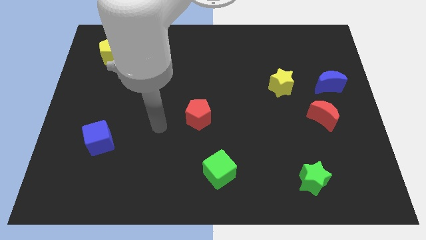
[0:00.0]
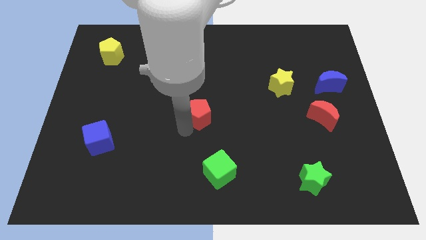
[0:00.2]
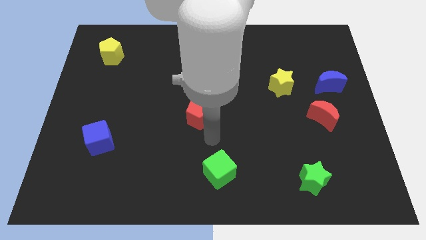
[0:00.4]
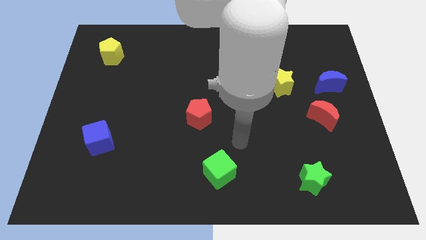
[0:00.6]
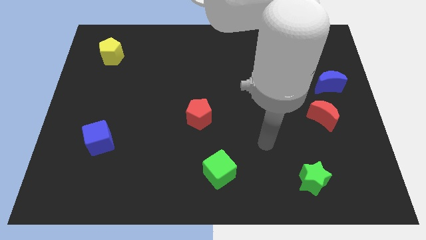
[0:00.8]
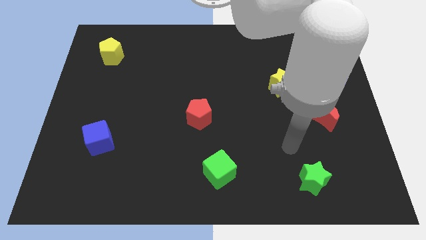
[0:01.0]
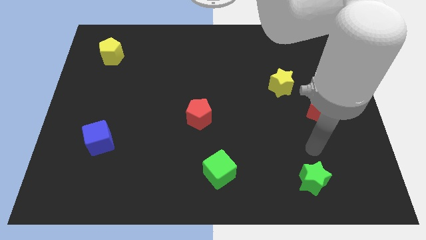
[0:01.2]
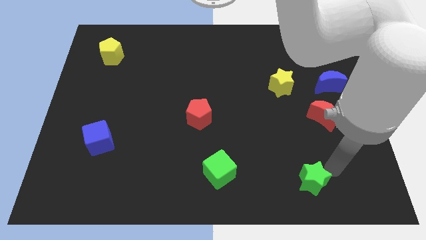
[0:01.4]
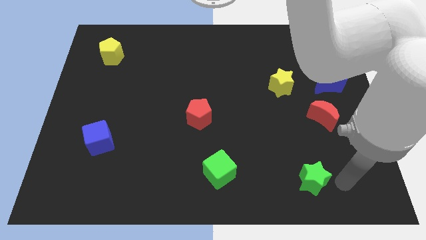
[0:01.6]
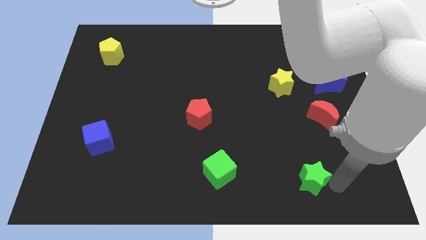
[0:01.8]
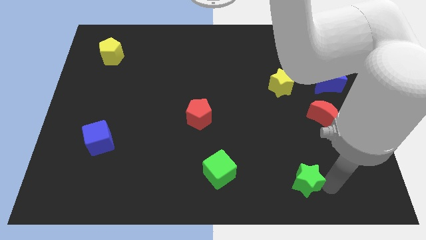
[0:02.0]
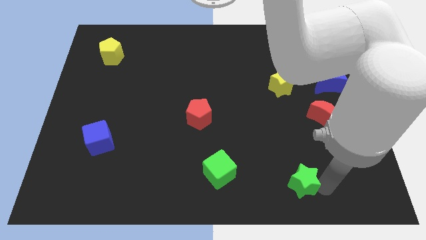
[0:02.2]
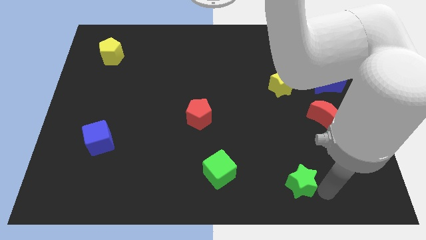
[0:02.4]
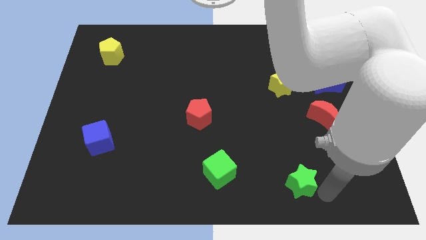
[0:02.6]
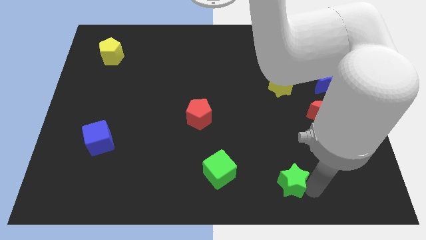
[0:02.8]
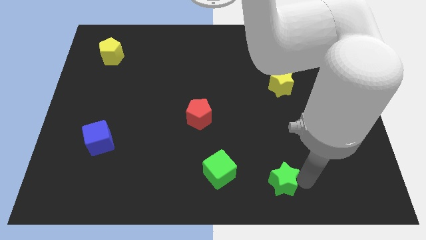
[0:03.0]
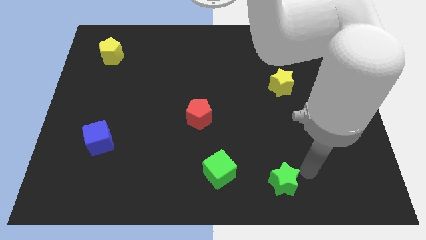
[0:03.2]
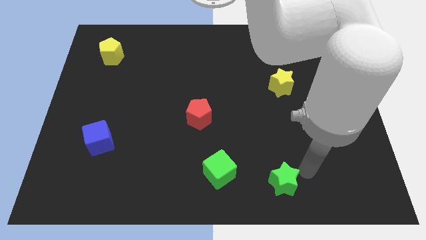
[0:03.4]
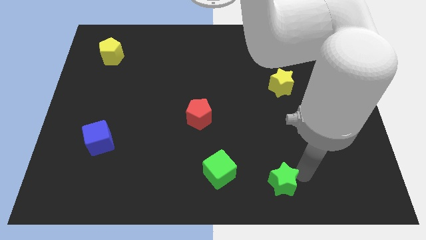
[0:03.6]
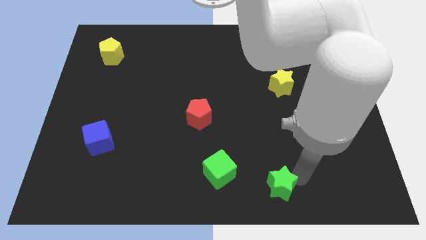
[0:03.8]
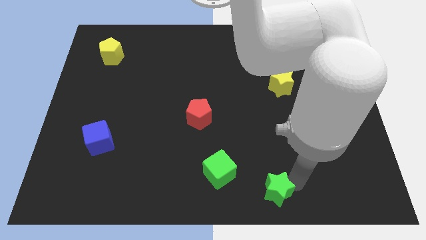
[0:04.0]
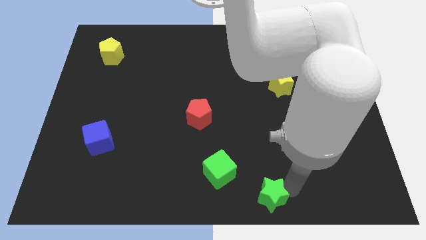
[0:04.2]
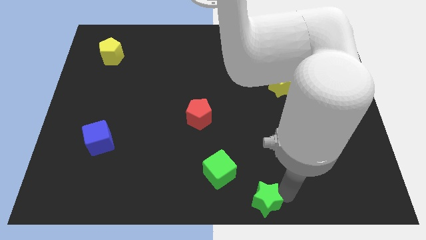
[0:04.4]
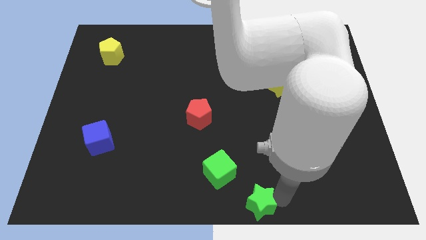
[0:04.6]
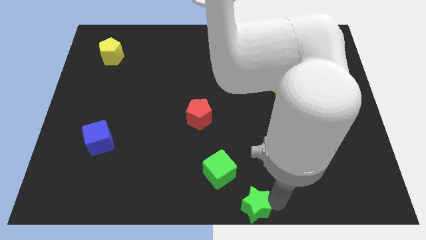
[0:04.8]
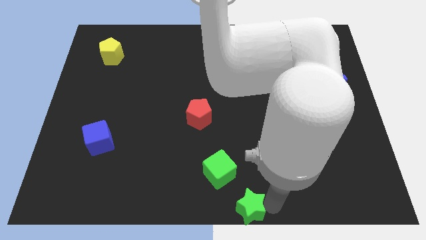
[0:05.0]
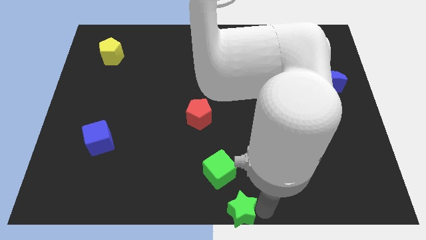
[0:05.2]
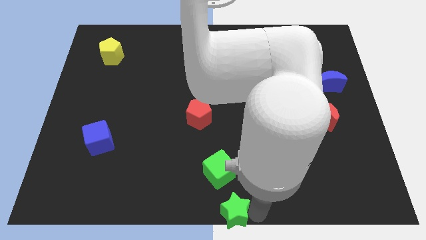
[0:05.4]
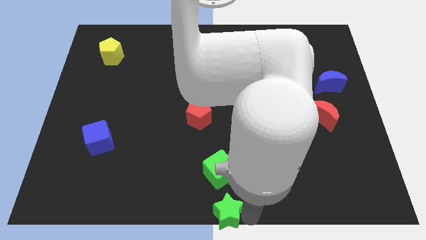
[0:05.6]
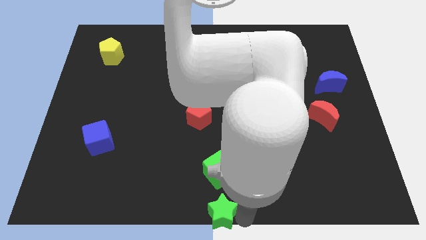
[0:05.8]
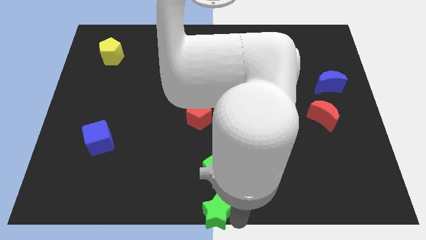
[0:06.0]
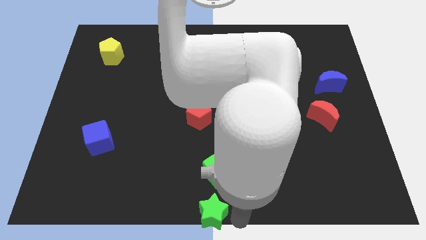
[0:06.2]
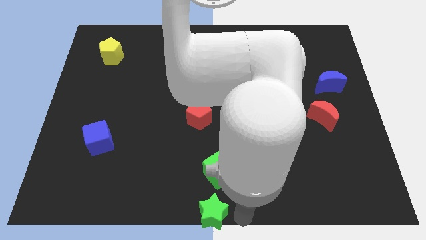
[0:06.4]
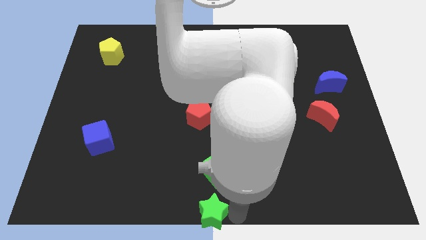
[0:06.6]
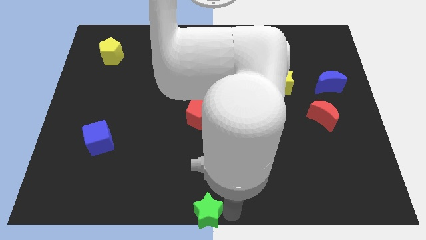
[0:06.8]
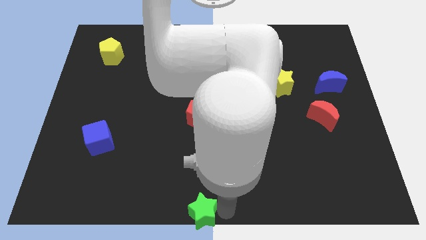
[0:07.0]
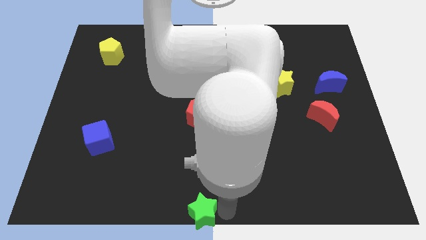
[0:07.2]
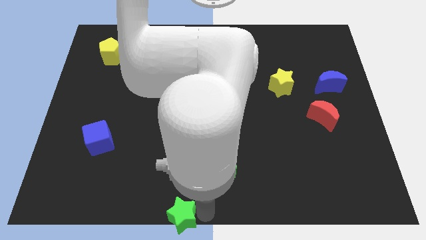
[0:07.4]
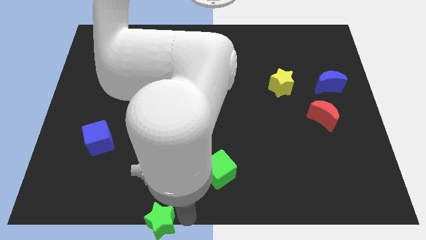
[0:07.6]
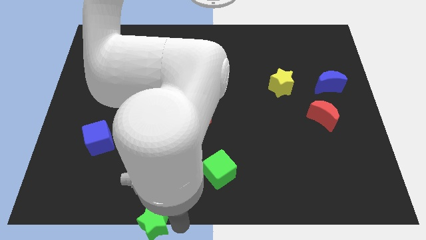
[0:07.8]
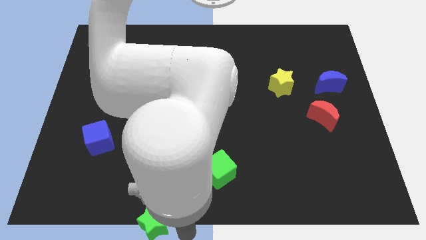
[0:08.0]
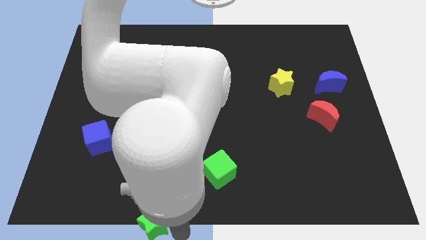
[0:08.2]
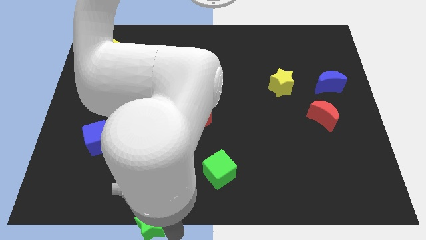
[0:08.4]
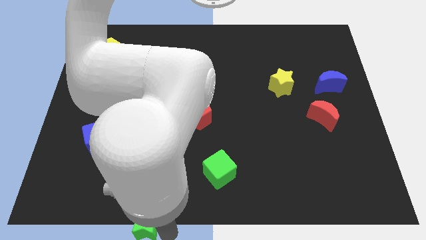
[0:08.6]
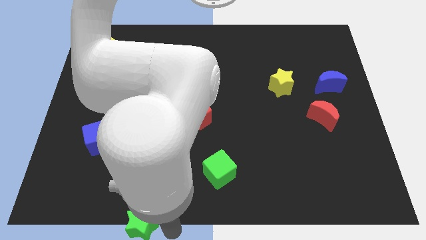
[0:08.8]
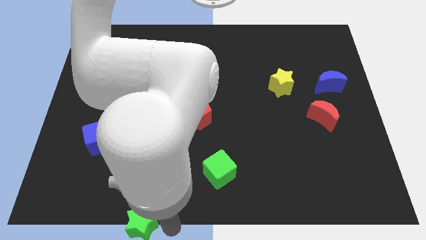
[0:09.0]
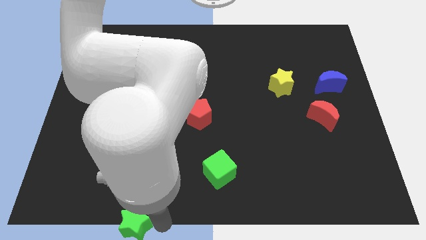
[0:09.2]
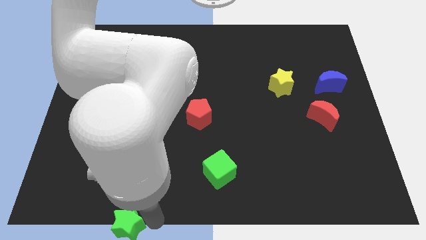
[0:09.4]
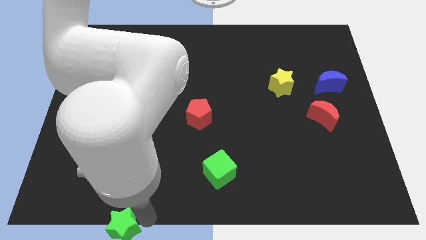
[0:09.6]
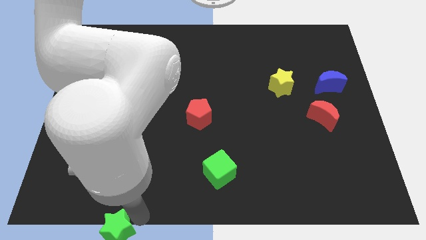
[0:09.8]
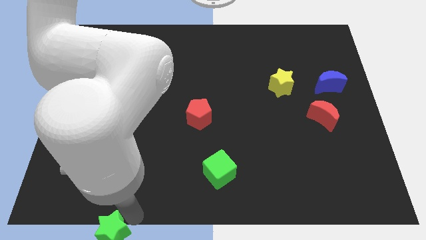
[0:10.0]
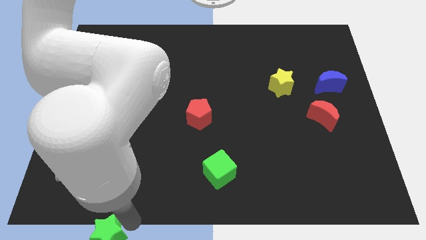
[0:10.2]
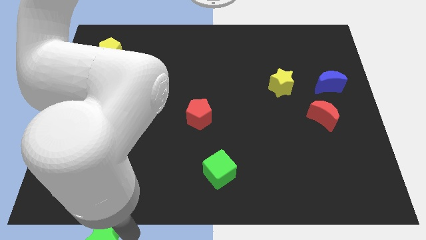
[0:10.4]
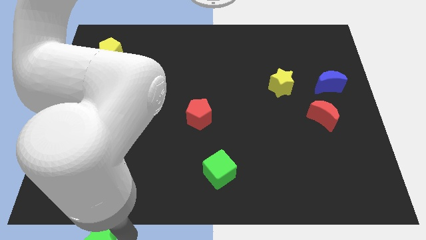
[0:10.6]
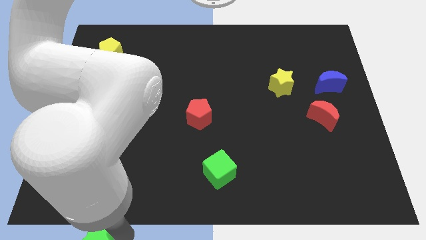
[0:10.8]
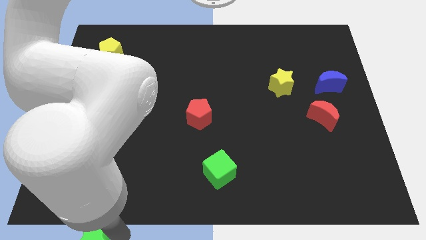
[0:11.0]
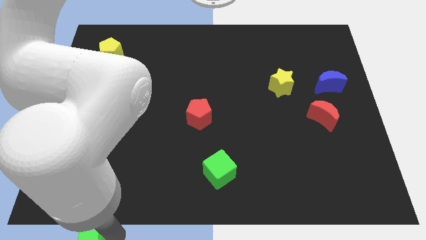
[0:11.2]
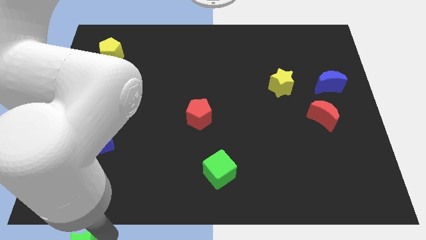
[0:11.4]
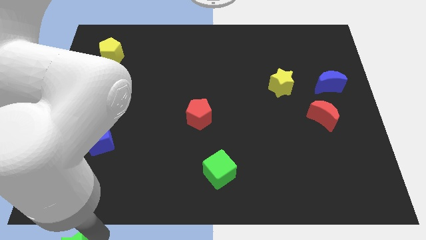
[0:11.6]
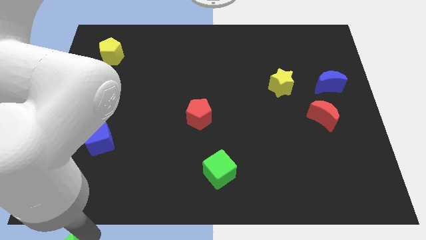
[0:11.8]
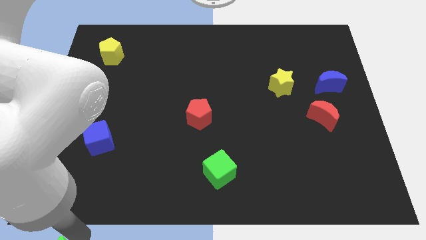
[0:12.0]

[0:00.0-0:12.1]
slide the green star to the bottom left
